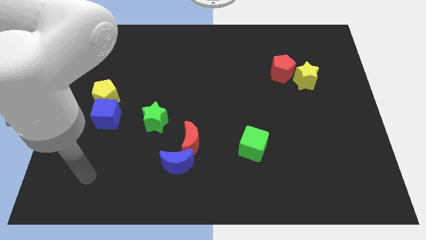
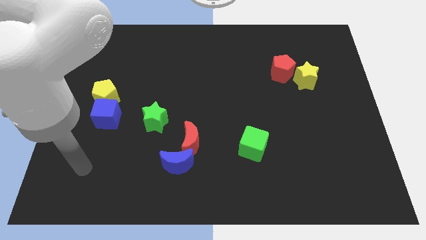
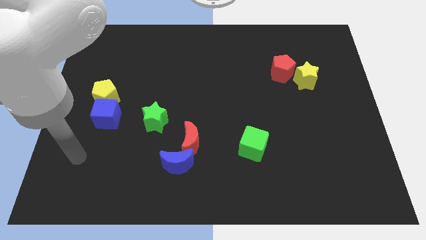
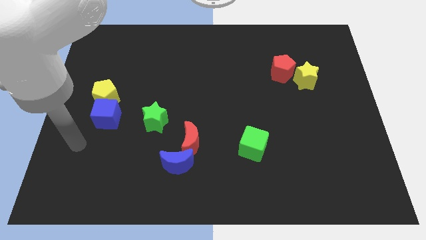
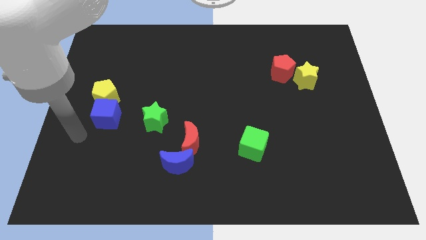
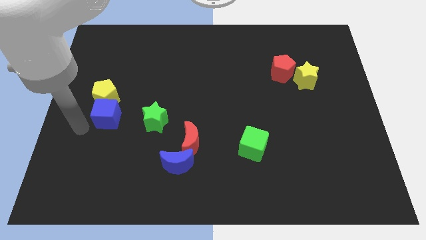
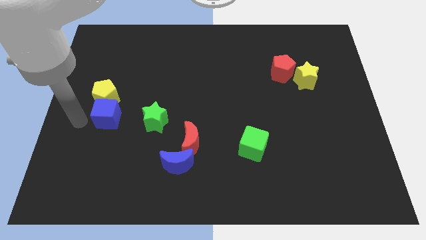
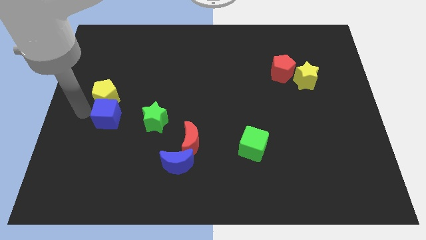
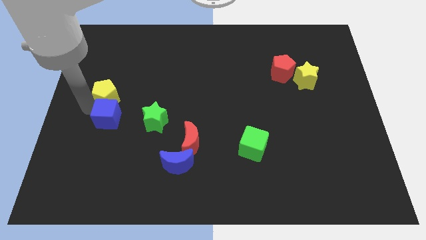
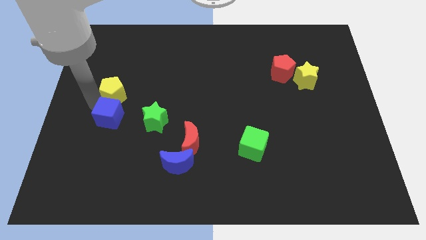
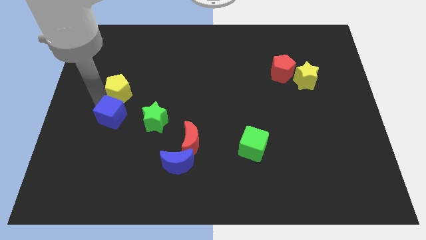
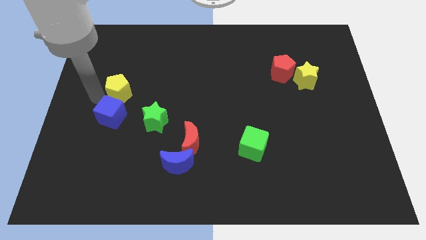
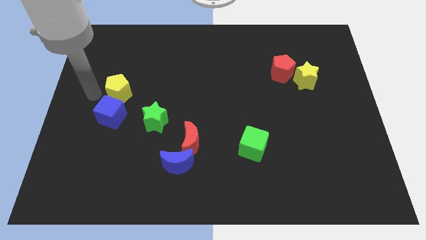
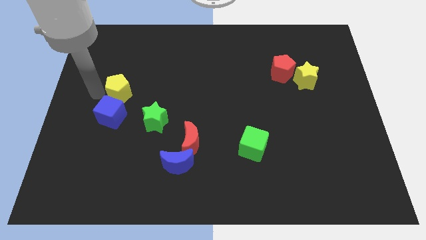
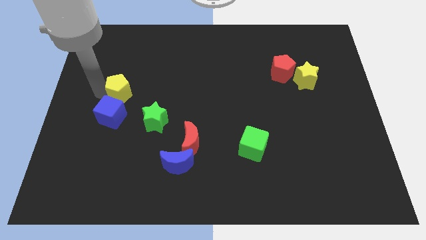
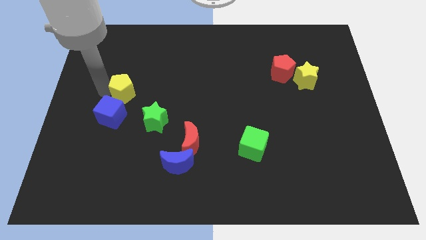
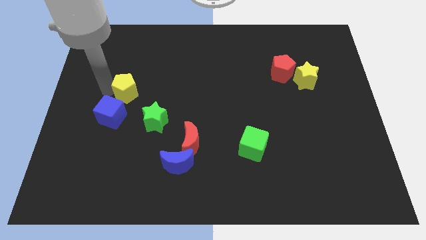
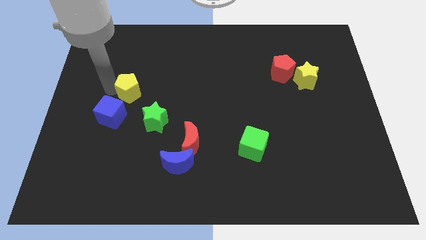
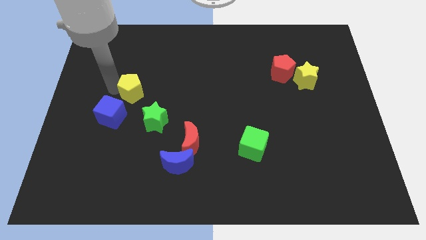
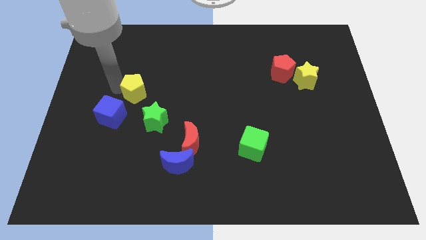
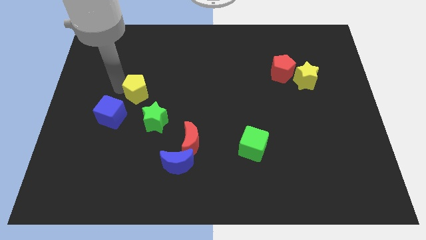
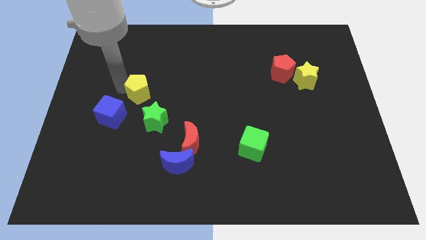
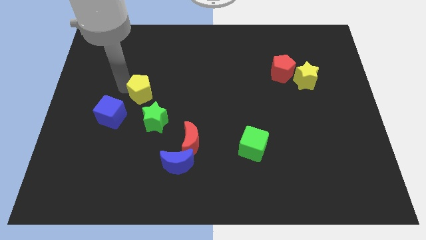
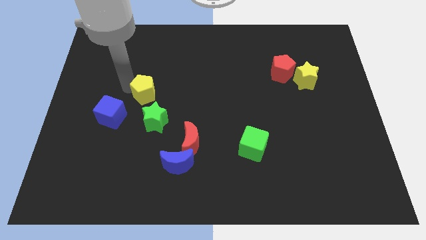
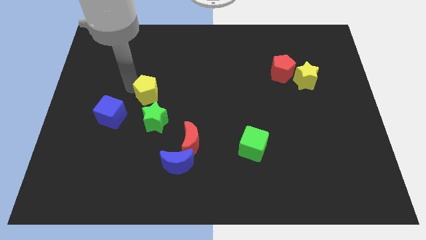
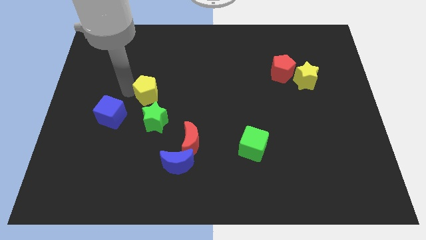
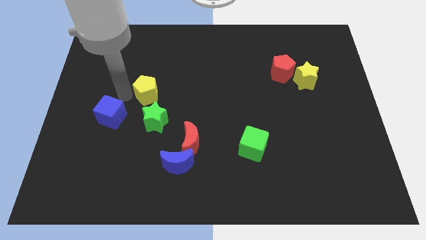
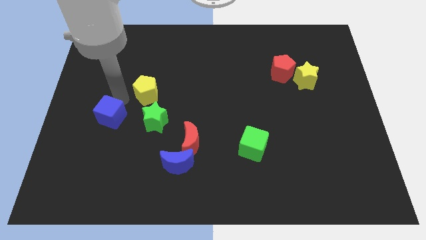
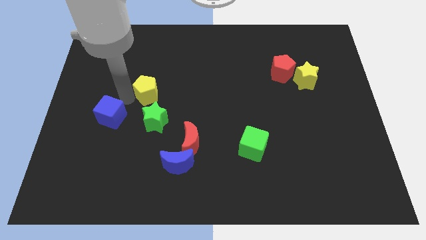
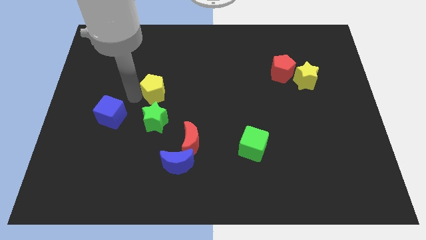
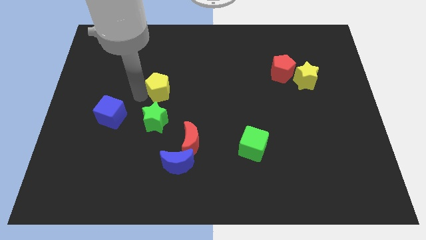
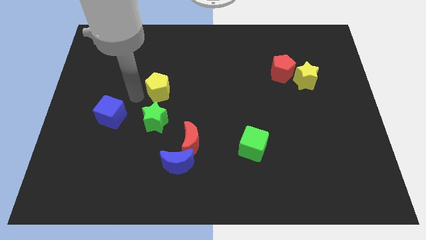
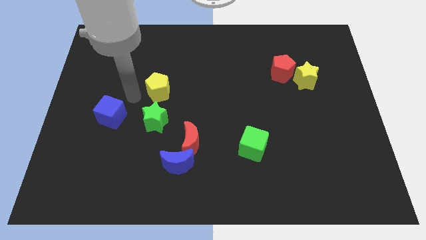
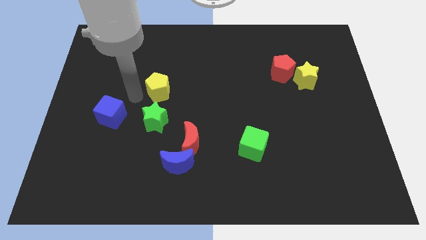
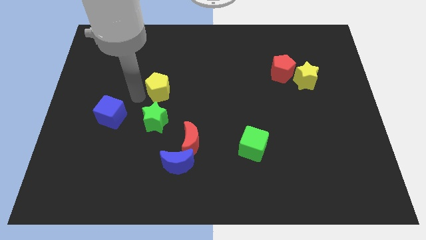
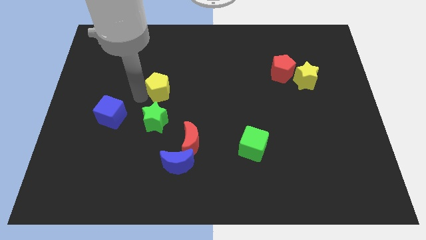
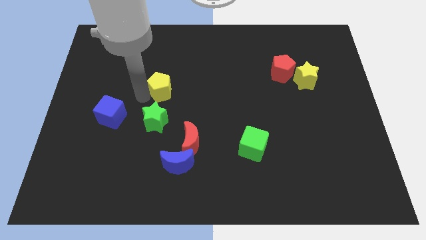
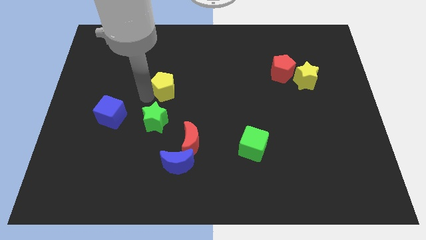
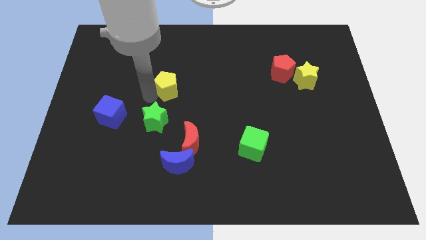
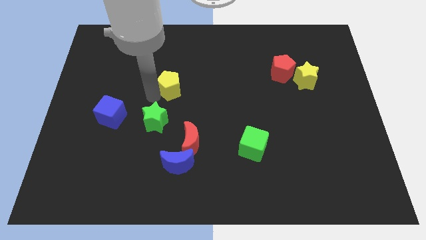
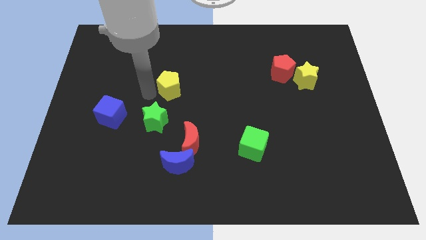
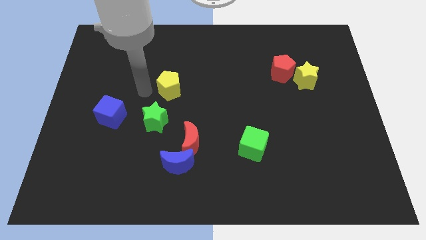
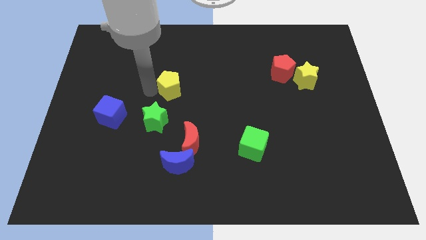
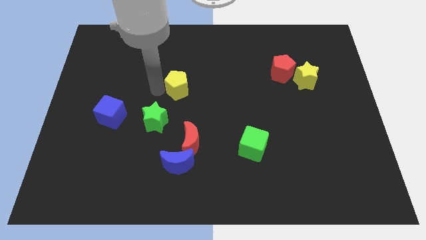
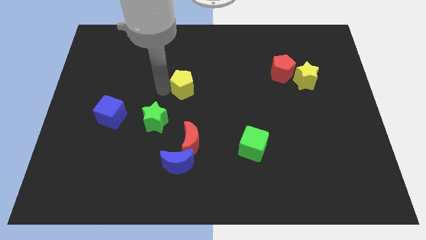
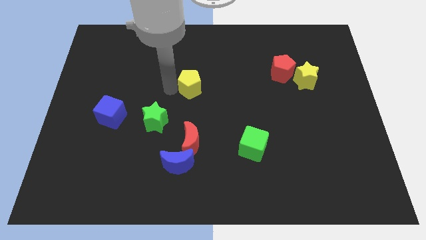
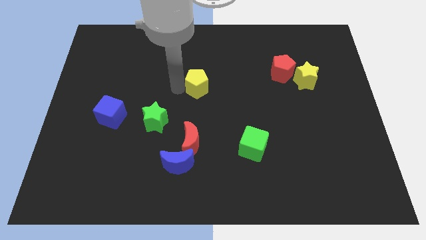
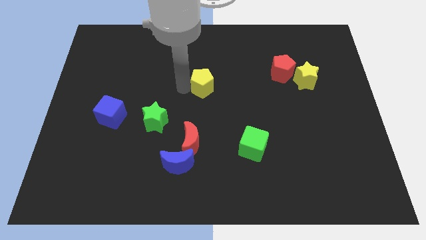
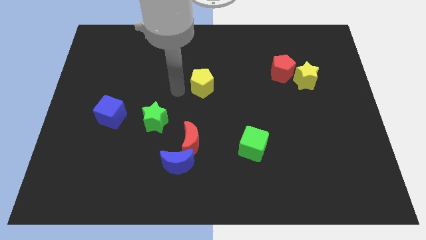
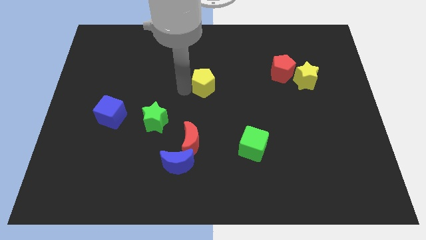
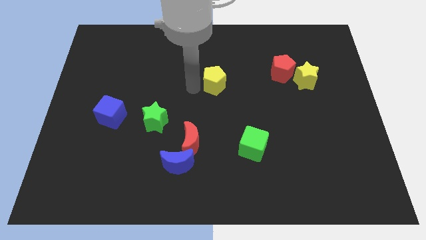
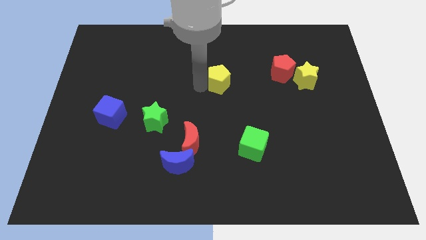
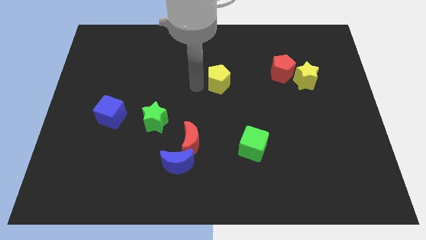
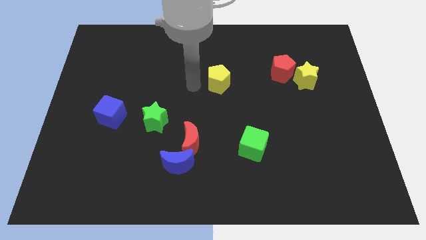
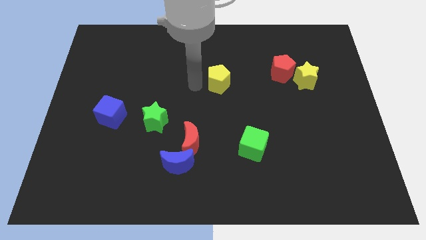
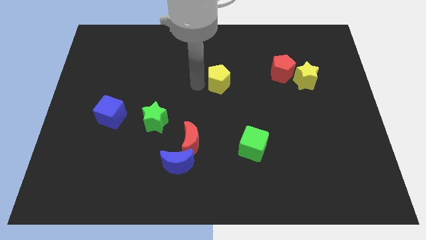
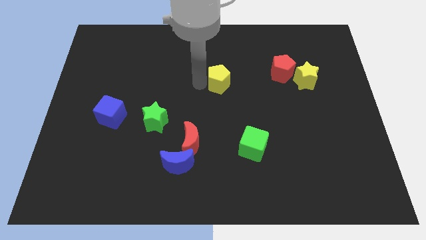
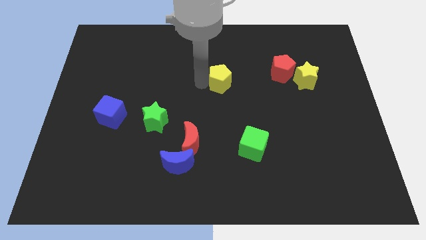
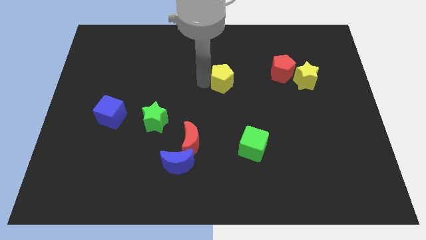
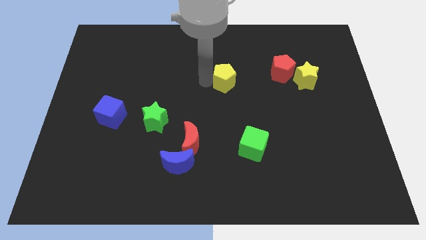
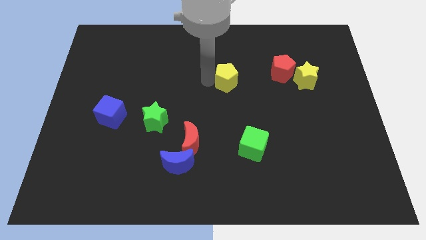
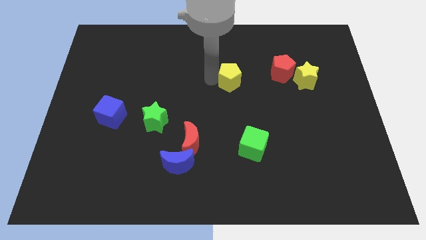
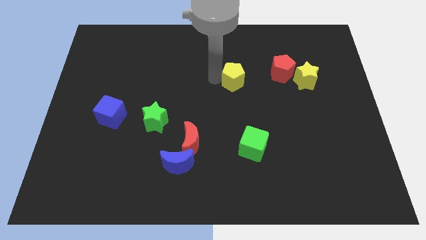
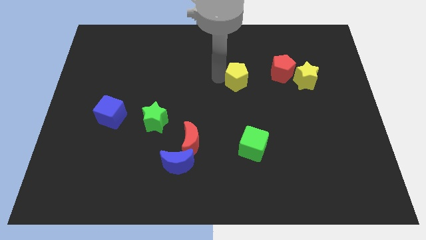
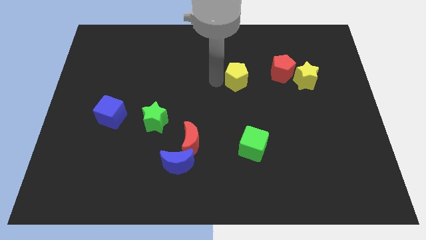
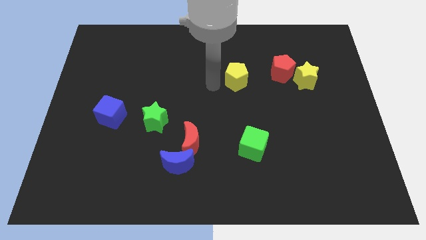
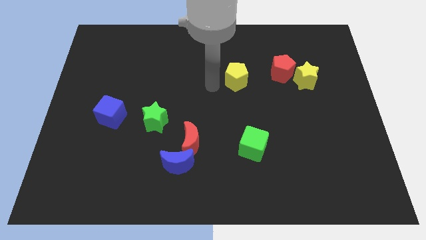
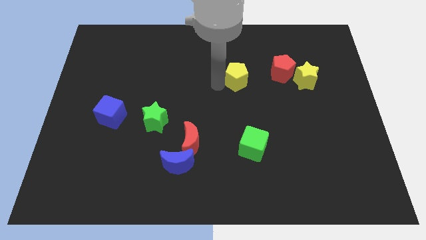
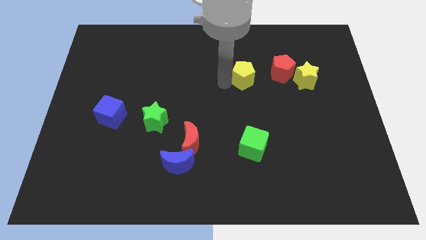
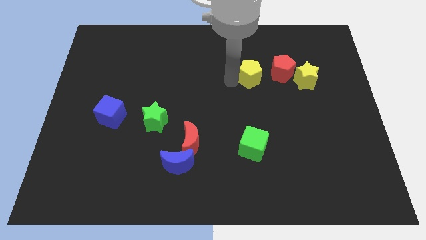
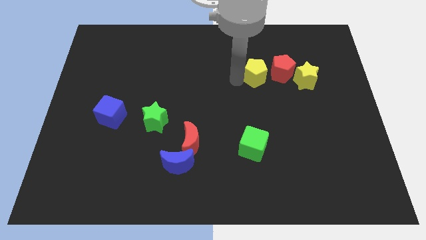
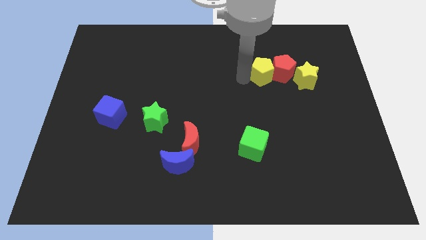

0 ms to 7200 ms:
push the yellow pentagon to the red pentagon

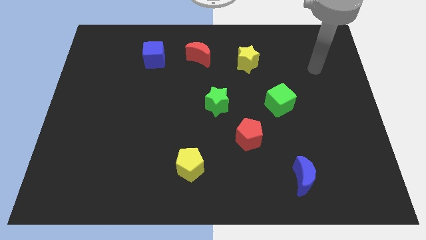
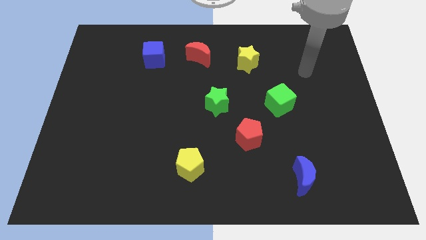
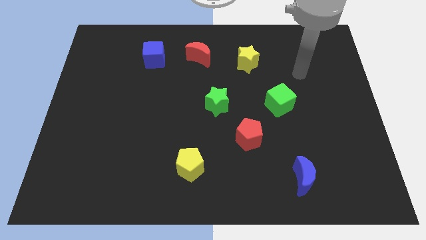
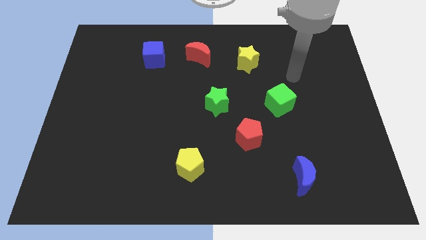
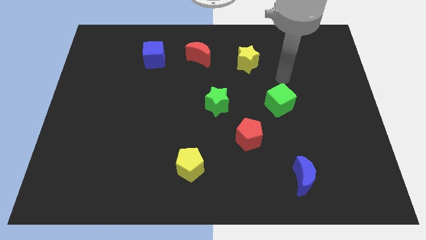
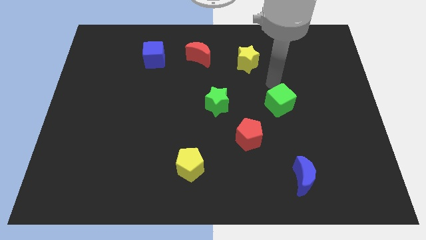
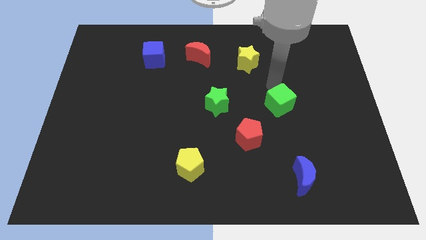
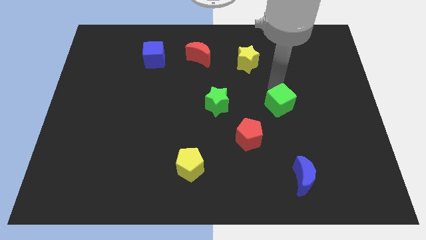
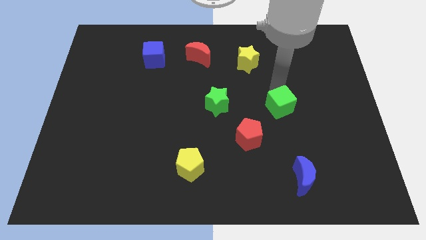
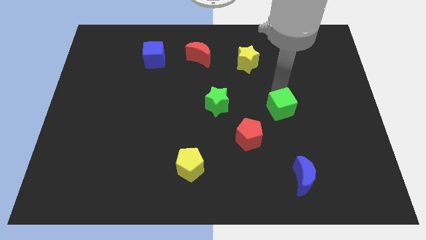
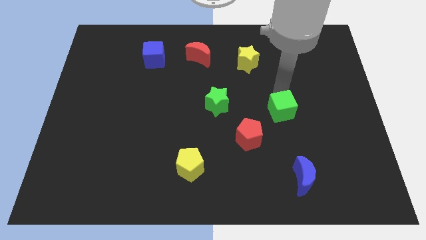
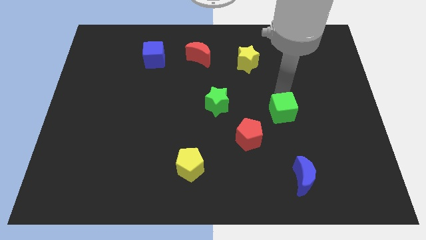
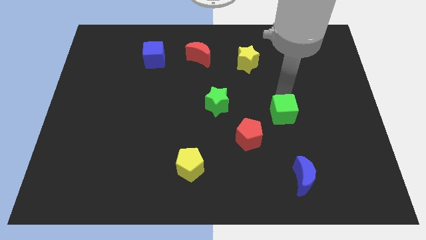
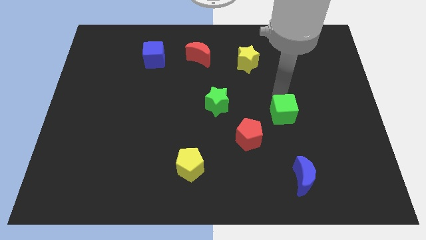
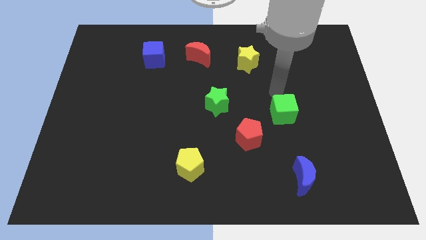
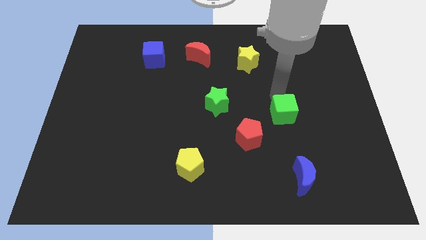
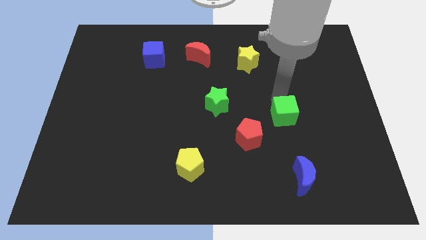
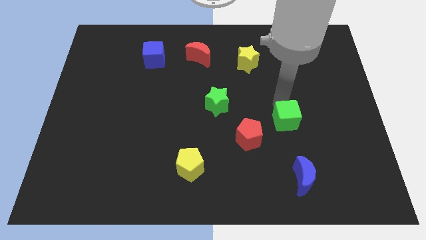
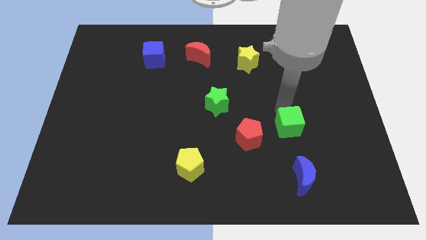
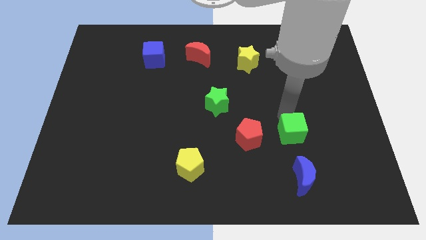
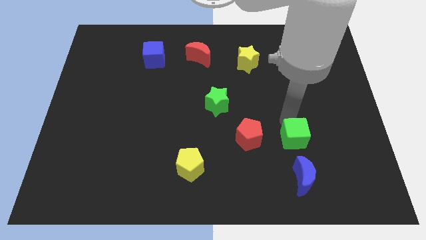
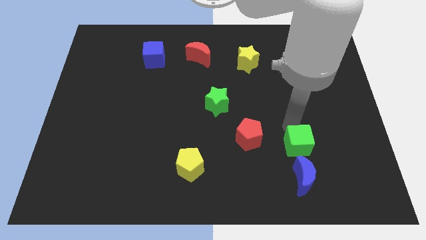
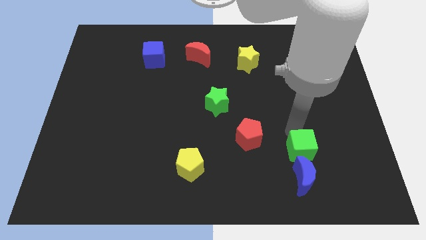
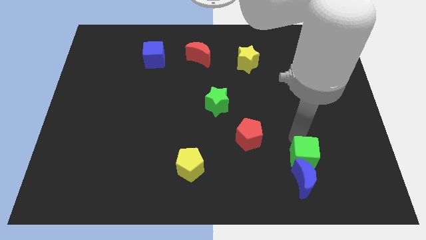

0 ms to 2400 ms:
move the green cube next to the blue moon
